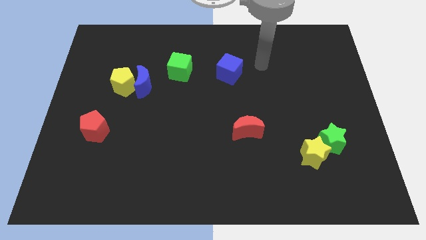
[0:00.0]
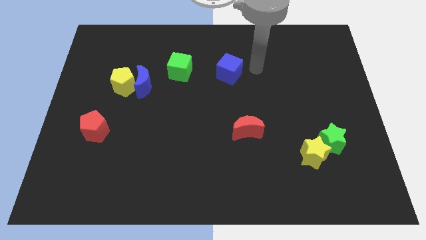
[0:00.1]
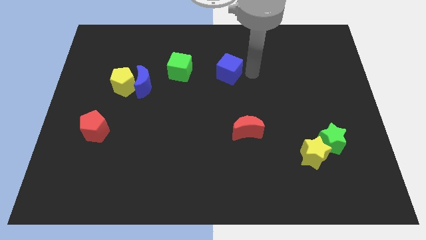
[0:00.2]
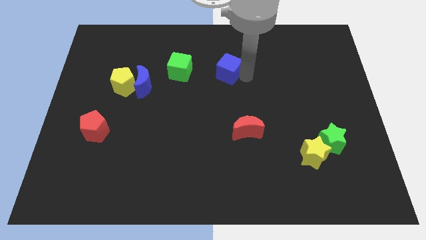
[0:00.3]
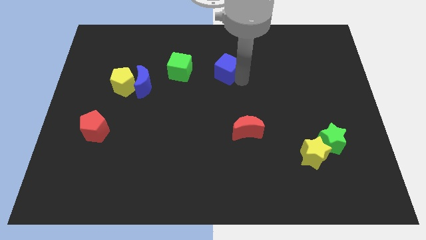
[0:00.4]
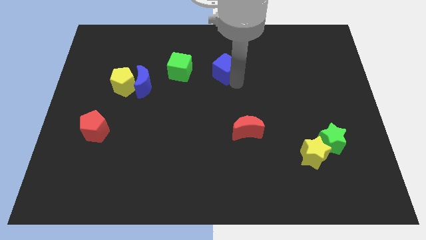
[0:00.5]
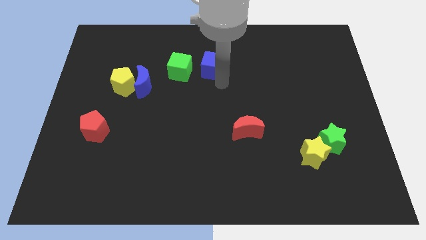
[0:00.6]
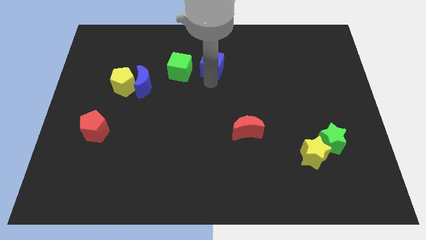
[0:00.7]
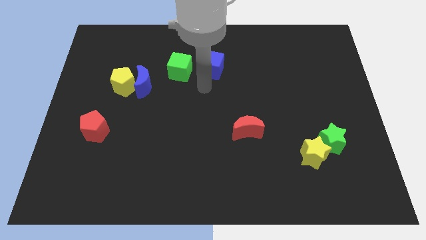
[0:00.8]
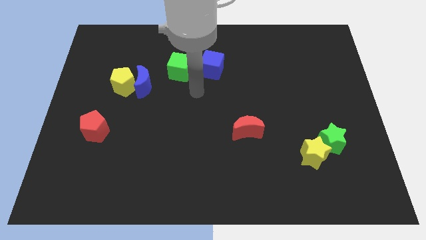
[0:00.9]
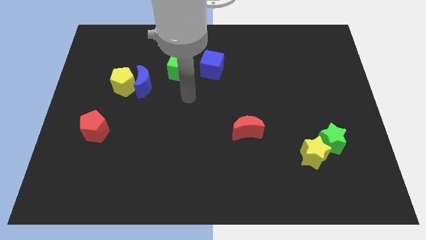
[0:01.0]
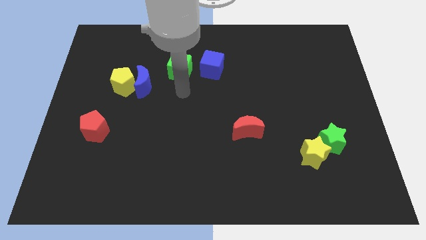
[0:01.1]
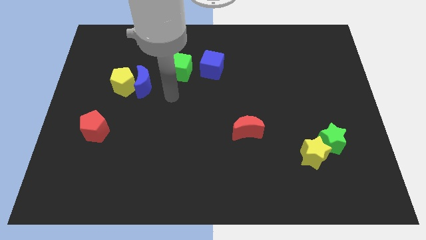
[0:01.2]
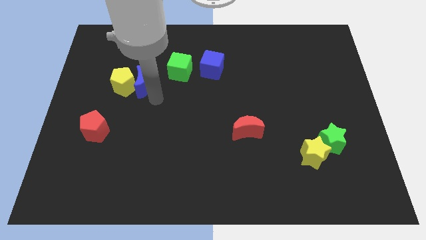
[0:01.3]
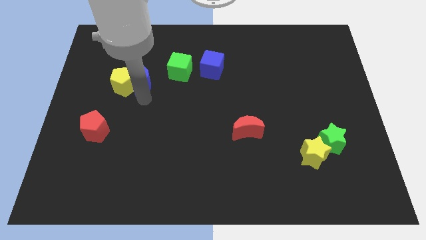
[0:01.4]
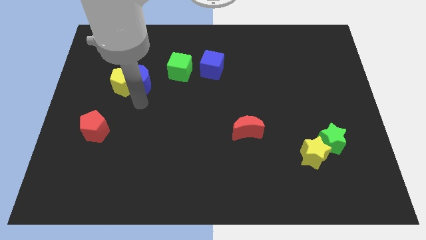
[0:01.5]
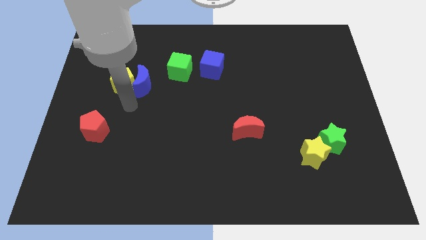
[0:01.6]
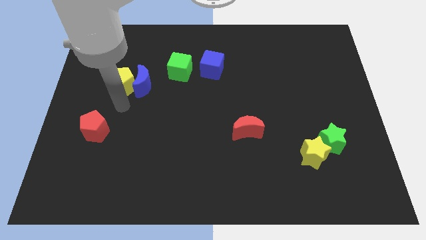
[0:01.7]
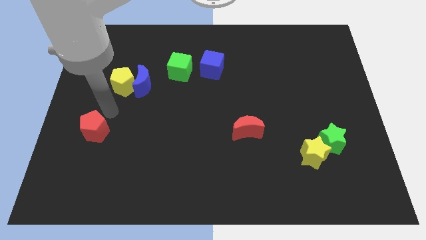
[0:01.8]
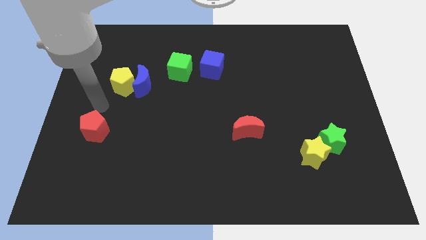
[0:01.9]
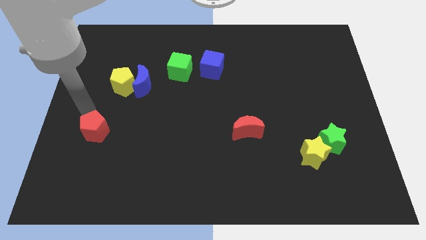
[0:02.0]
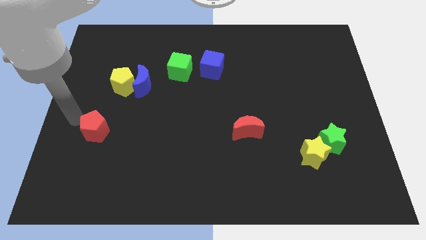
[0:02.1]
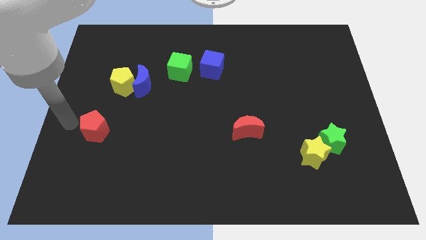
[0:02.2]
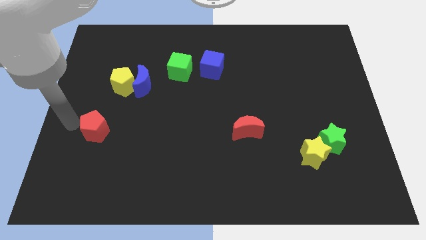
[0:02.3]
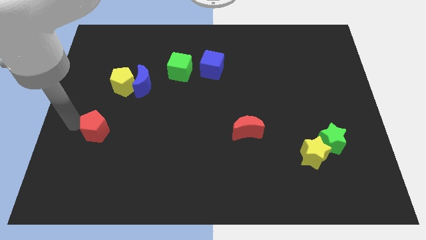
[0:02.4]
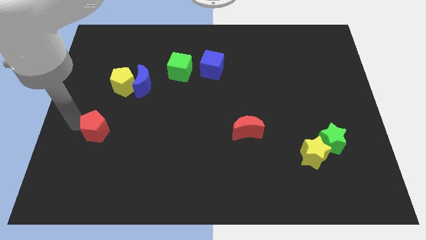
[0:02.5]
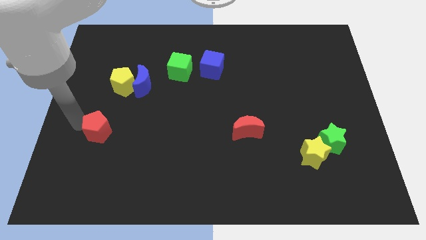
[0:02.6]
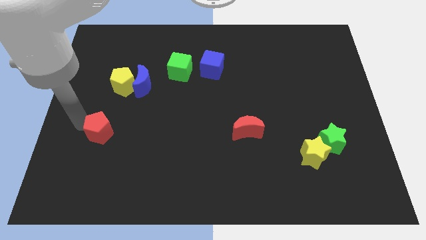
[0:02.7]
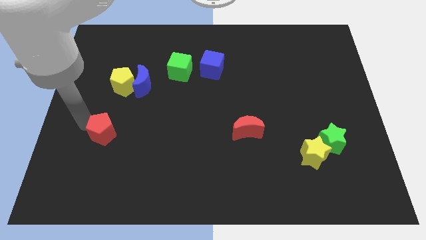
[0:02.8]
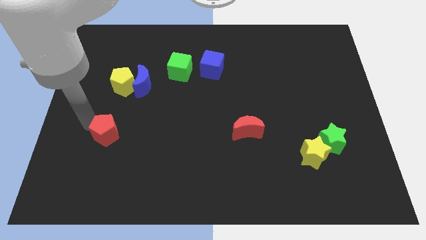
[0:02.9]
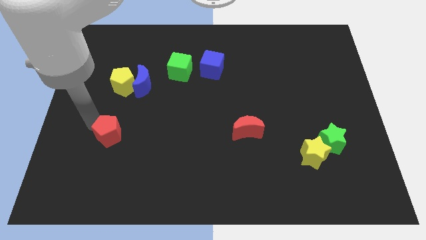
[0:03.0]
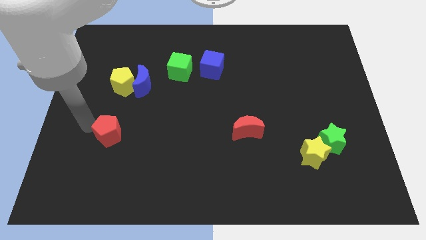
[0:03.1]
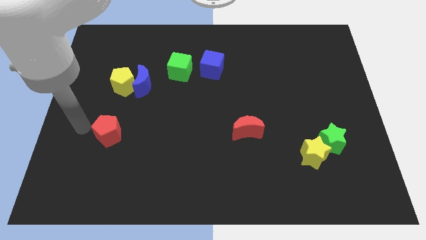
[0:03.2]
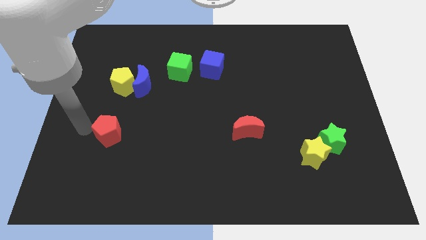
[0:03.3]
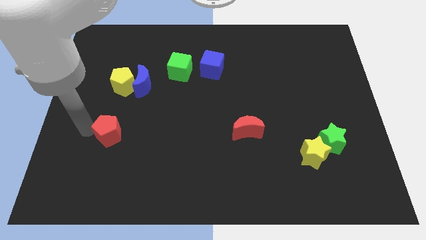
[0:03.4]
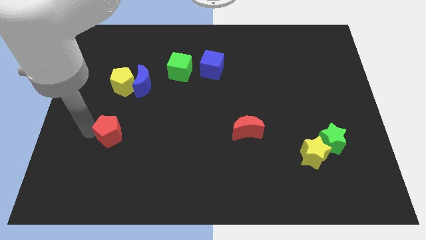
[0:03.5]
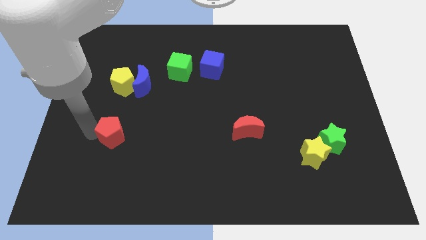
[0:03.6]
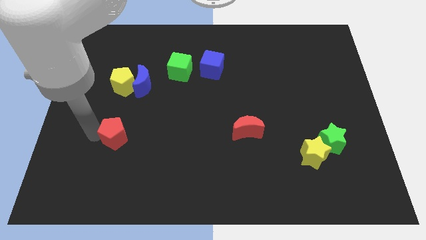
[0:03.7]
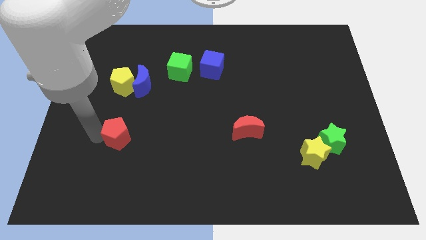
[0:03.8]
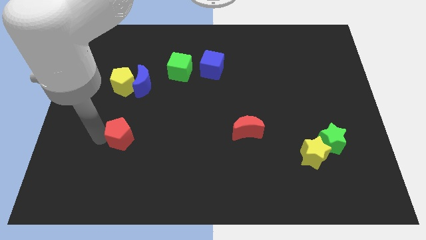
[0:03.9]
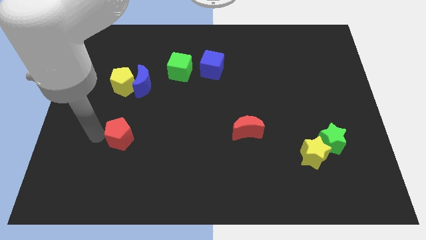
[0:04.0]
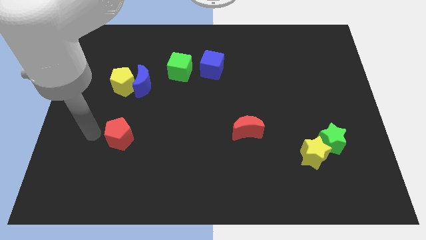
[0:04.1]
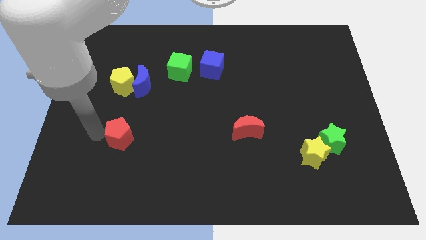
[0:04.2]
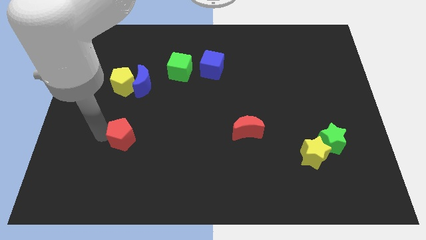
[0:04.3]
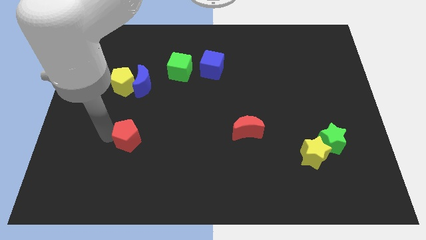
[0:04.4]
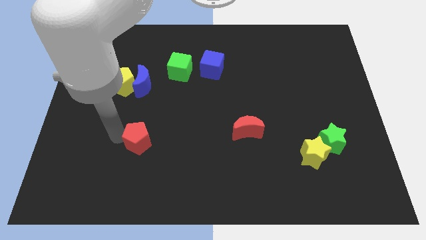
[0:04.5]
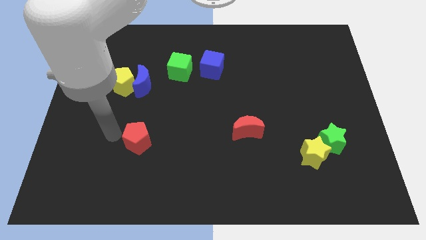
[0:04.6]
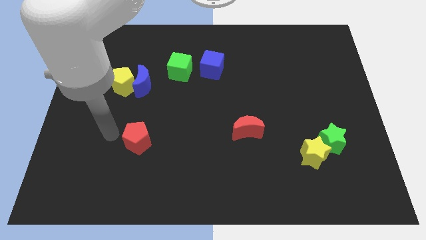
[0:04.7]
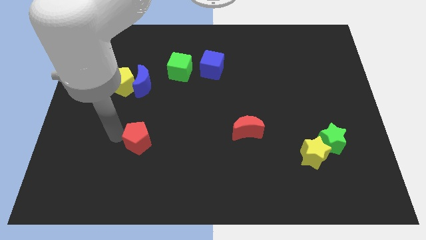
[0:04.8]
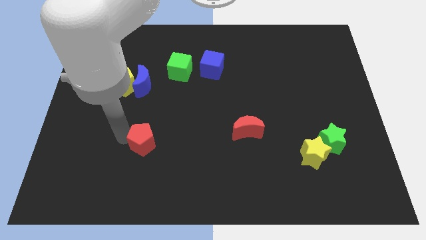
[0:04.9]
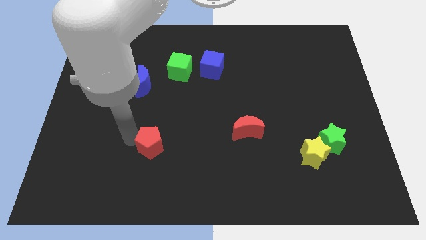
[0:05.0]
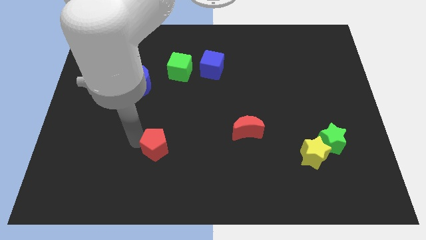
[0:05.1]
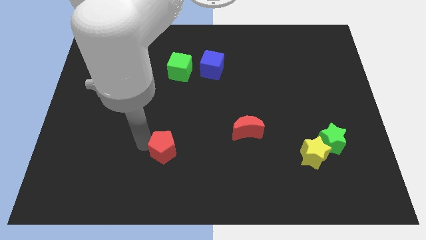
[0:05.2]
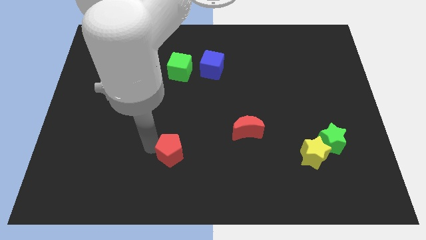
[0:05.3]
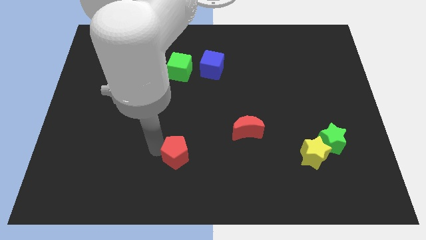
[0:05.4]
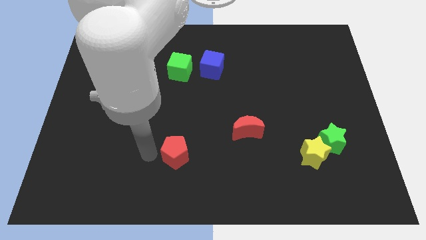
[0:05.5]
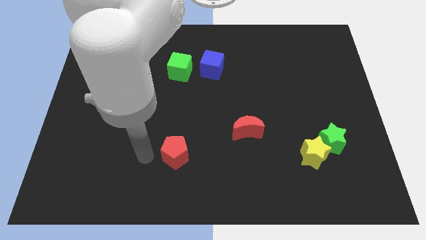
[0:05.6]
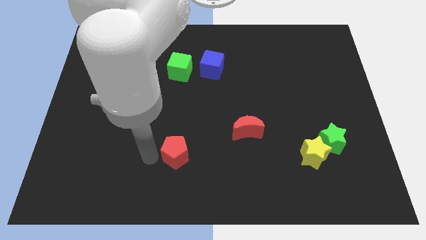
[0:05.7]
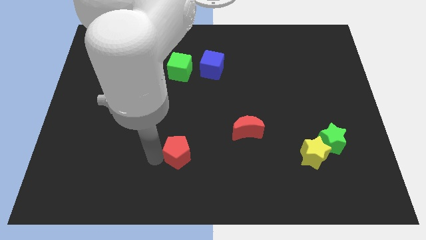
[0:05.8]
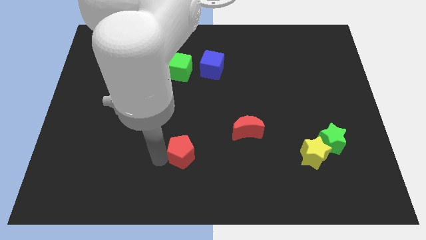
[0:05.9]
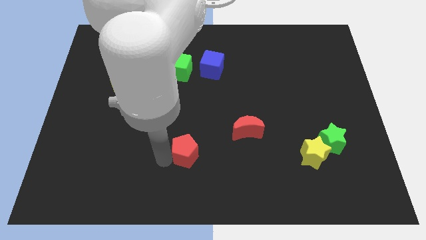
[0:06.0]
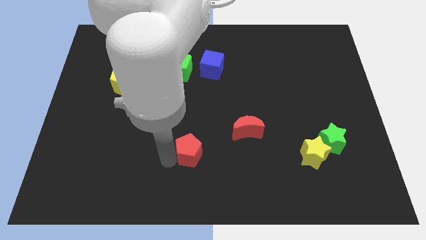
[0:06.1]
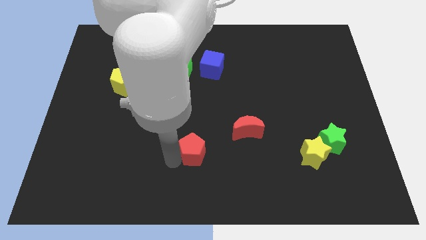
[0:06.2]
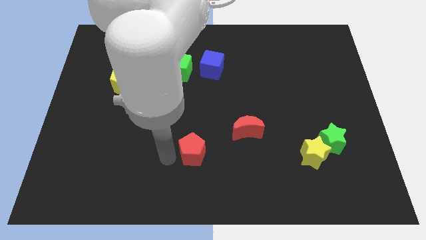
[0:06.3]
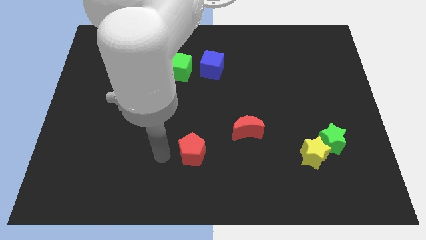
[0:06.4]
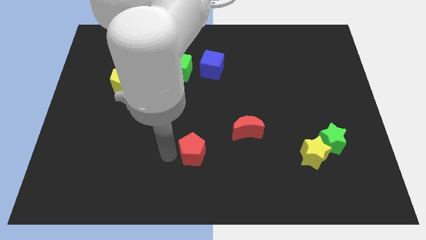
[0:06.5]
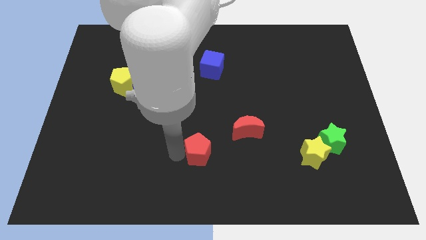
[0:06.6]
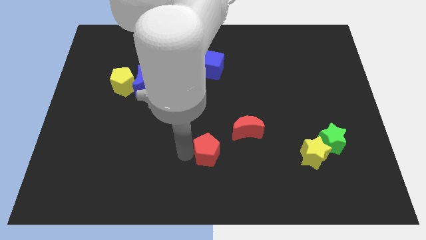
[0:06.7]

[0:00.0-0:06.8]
move the red pentagon to the bottom left side of the red moon
